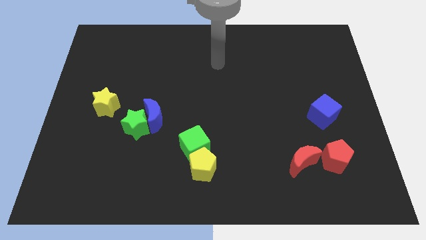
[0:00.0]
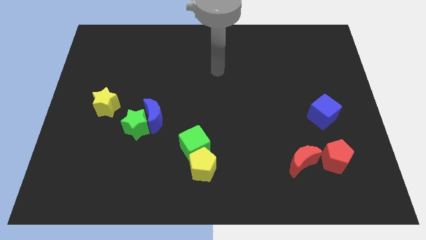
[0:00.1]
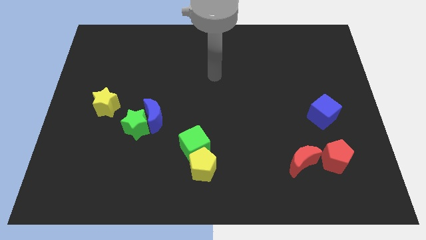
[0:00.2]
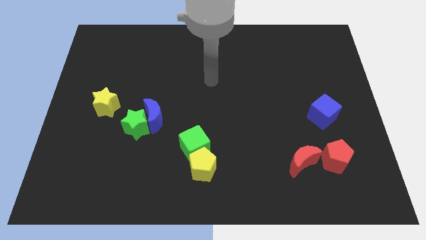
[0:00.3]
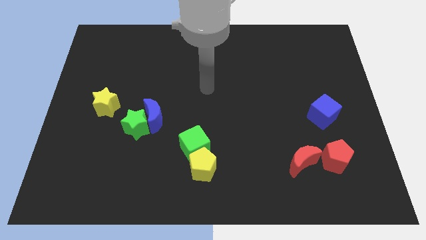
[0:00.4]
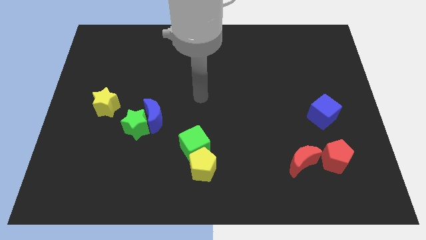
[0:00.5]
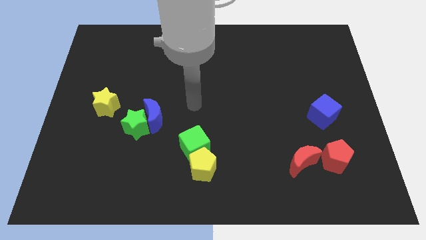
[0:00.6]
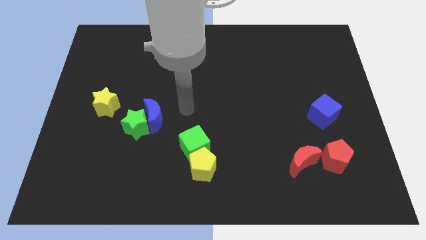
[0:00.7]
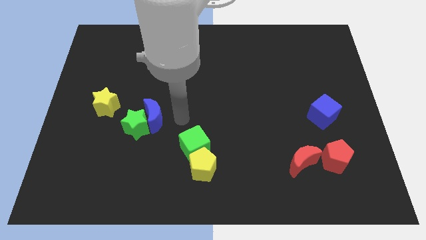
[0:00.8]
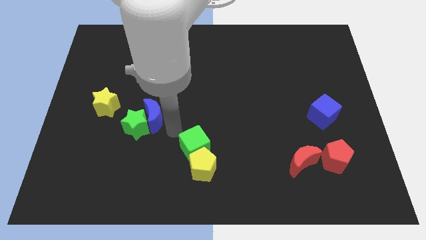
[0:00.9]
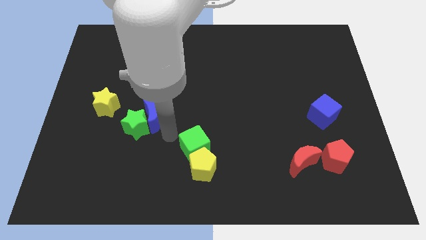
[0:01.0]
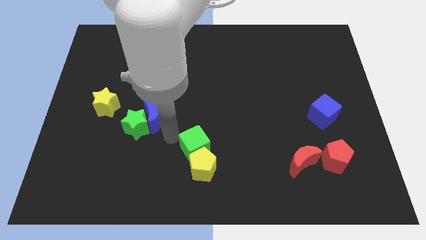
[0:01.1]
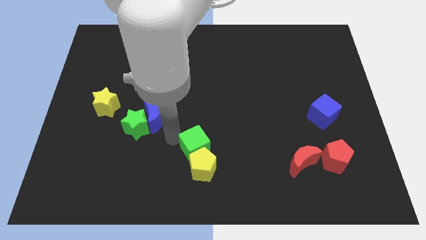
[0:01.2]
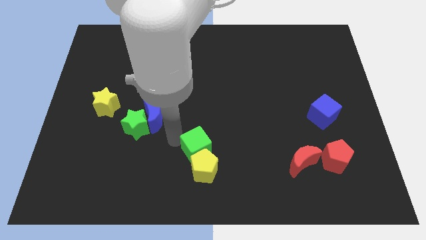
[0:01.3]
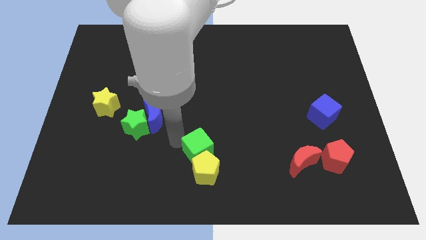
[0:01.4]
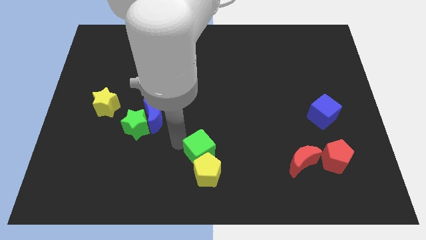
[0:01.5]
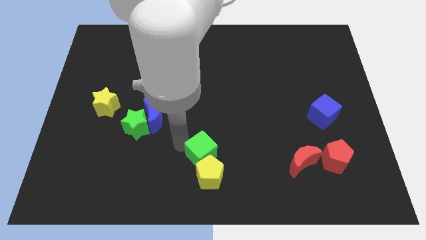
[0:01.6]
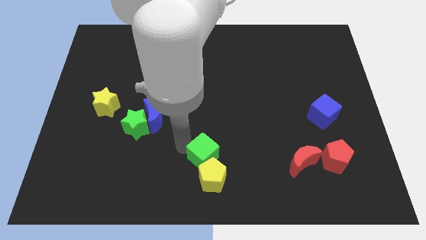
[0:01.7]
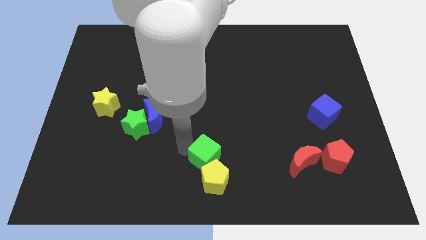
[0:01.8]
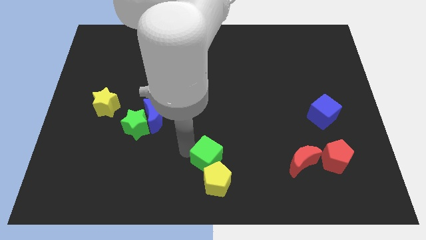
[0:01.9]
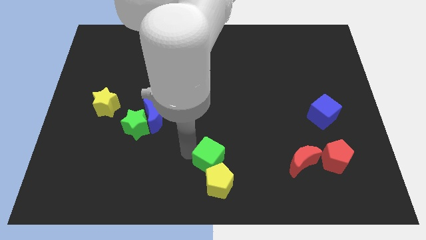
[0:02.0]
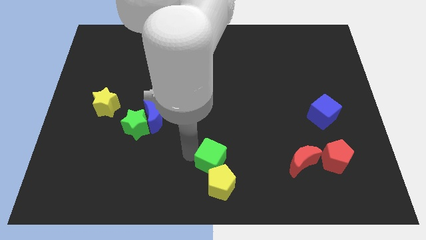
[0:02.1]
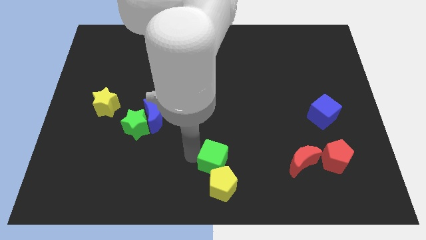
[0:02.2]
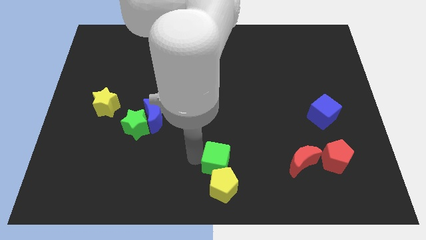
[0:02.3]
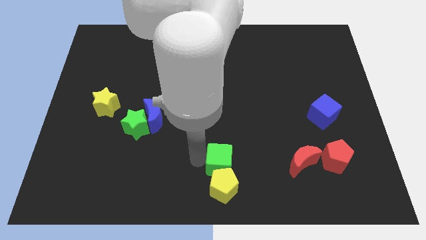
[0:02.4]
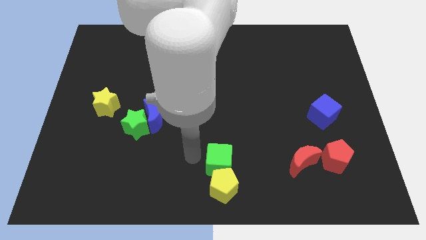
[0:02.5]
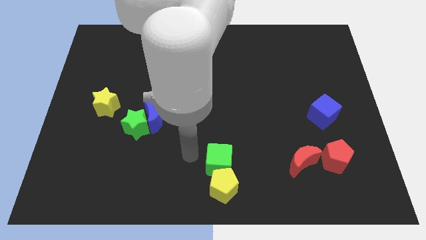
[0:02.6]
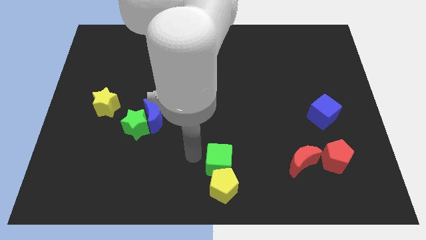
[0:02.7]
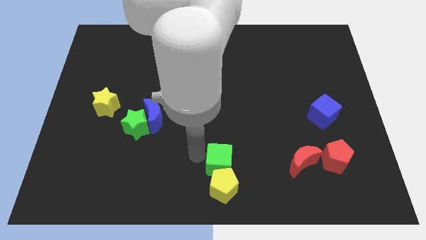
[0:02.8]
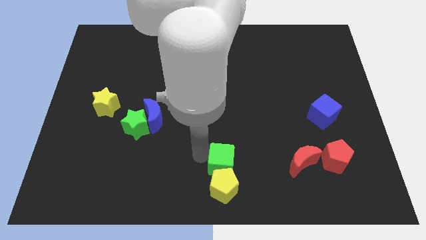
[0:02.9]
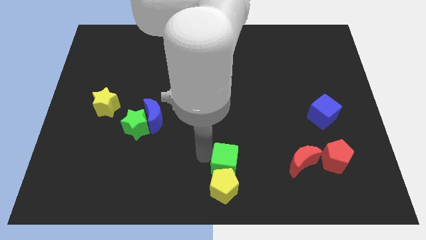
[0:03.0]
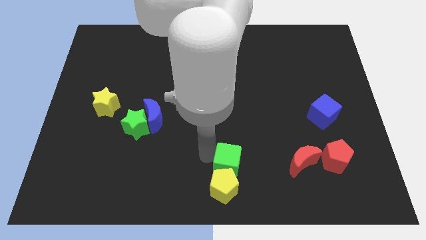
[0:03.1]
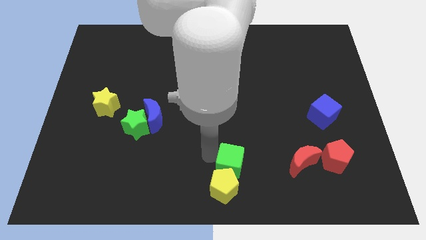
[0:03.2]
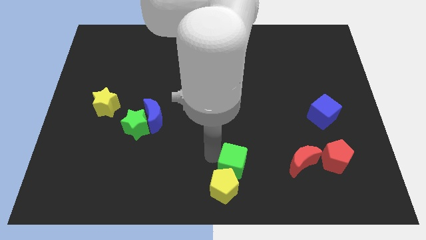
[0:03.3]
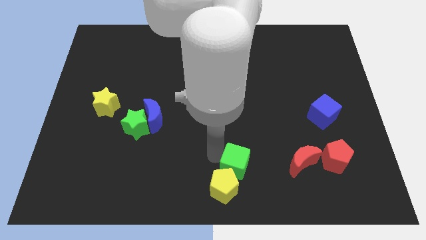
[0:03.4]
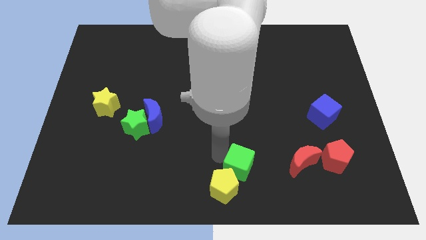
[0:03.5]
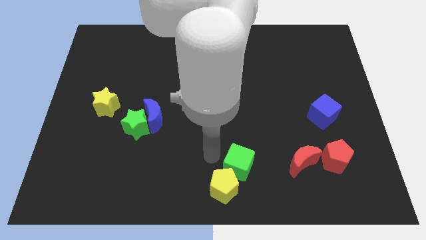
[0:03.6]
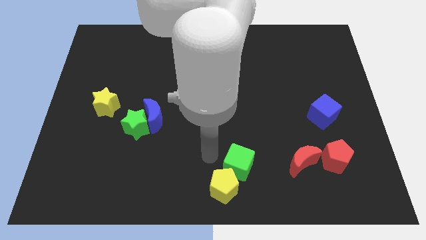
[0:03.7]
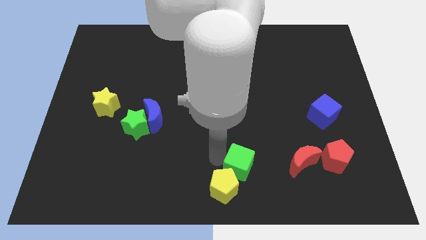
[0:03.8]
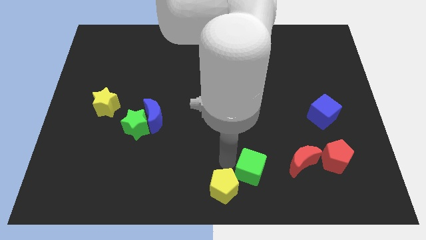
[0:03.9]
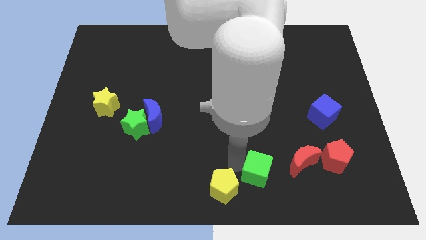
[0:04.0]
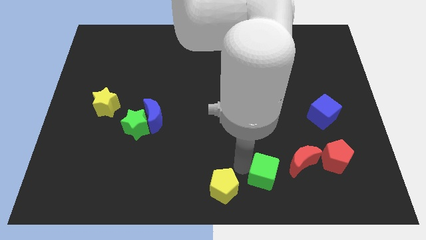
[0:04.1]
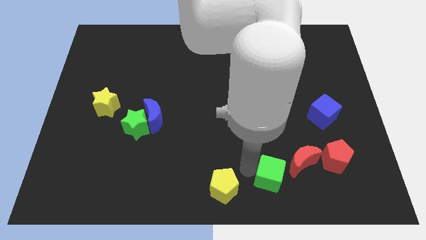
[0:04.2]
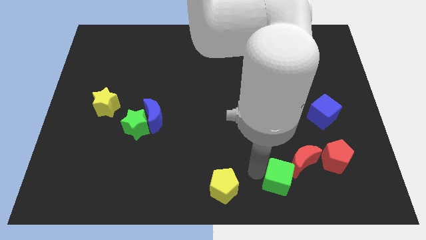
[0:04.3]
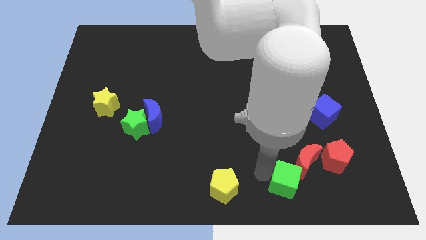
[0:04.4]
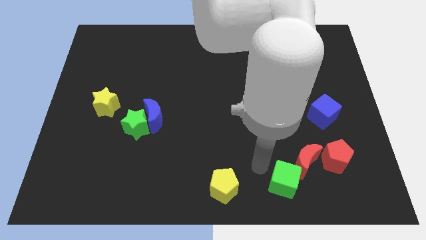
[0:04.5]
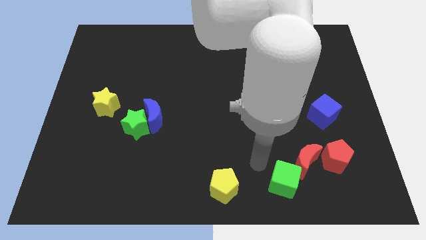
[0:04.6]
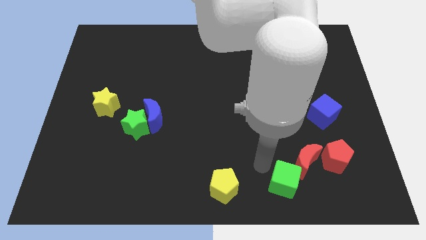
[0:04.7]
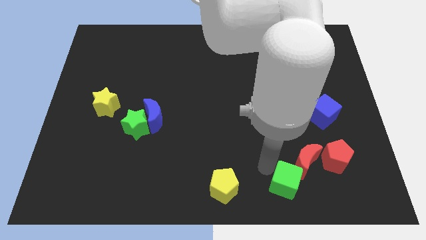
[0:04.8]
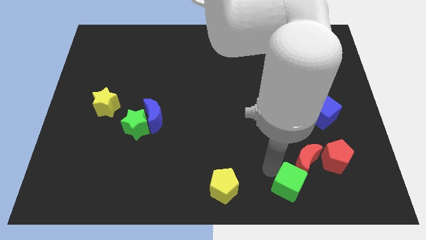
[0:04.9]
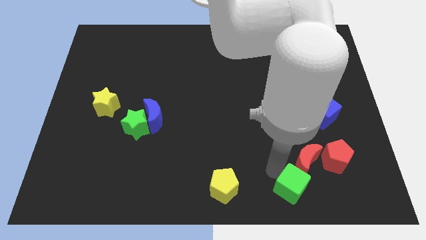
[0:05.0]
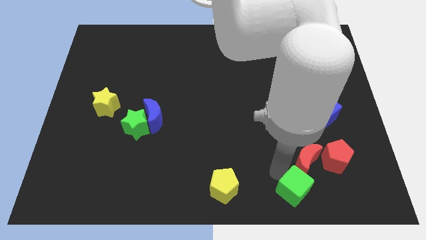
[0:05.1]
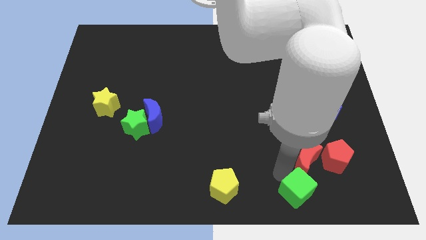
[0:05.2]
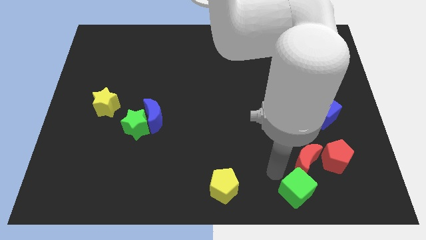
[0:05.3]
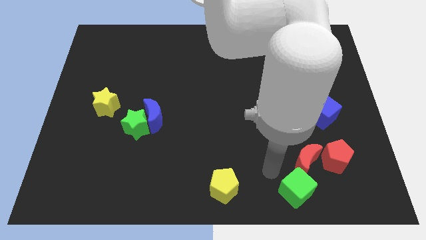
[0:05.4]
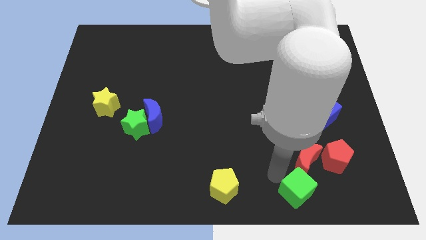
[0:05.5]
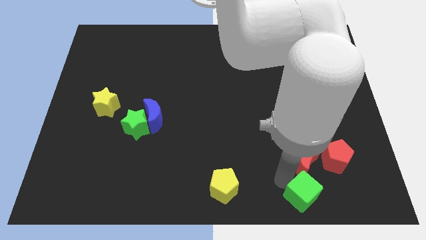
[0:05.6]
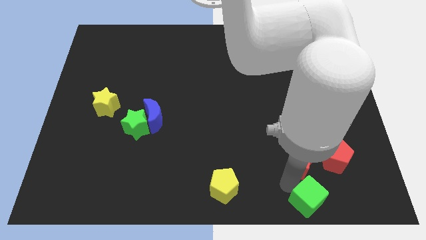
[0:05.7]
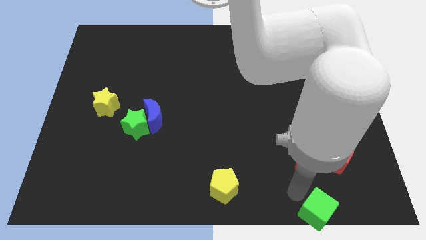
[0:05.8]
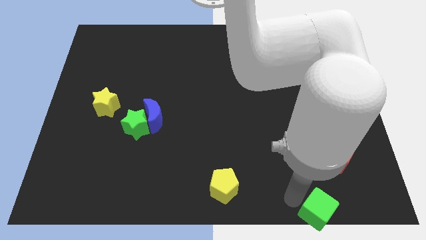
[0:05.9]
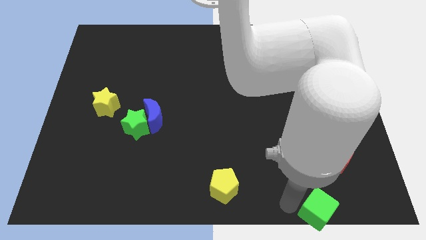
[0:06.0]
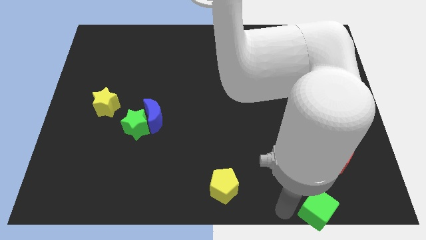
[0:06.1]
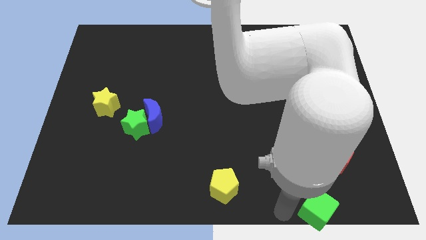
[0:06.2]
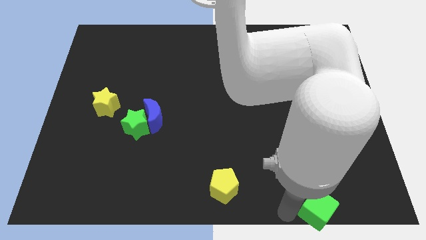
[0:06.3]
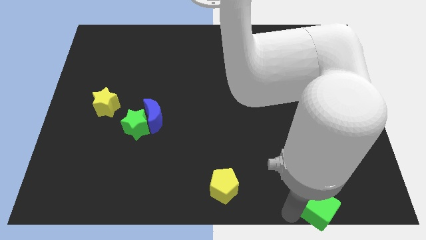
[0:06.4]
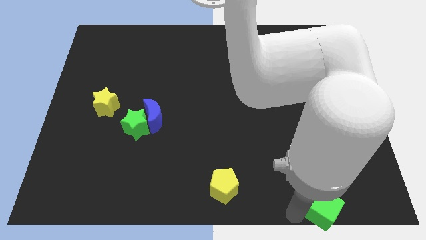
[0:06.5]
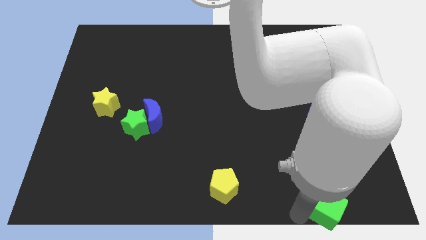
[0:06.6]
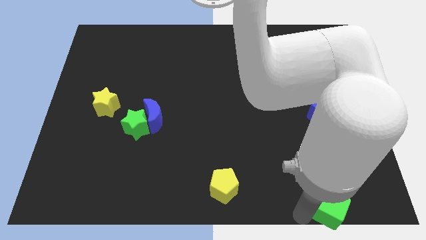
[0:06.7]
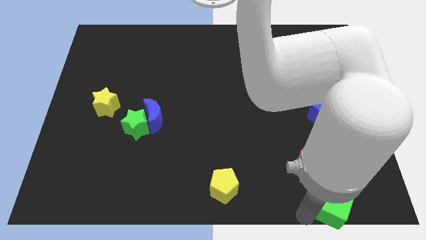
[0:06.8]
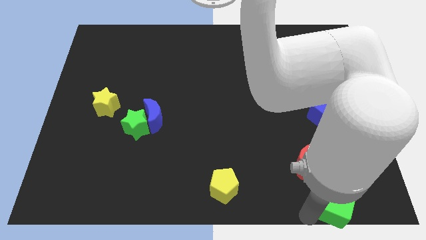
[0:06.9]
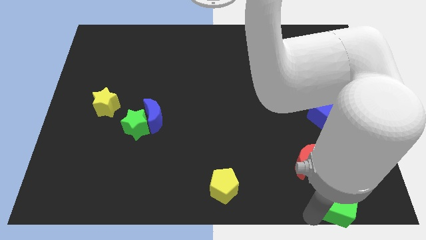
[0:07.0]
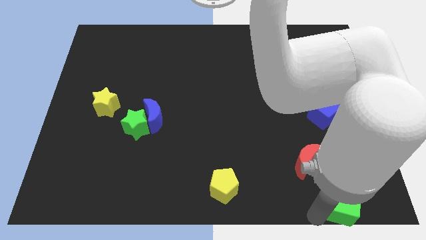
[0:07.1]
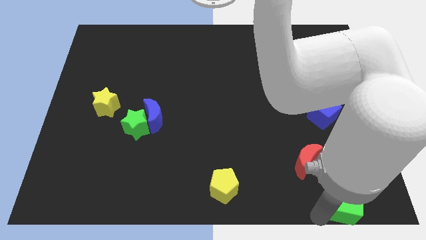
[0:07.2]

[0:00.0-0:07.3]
move the green cube to the bottom right of the board
